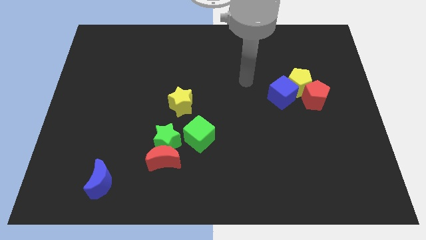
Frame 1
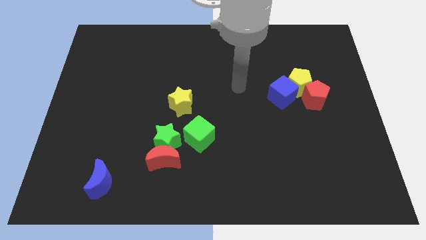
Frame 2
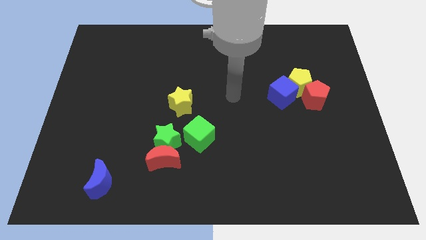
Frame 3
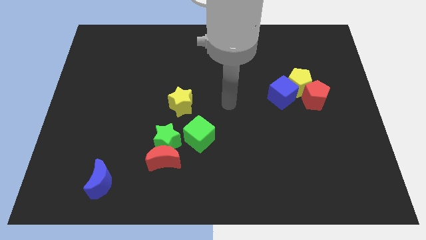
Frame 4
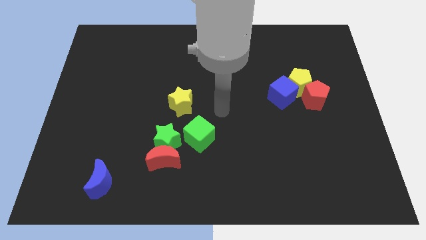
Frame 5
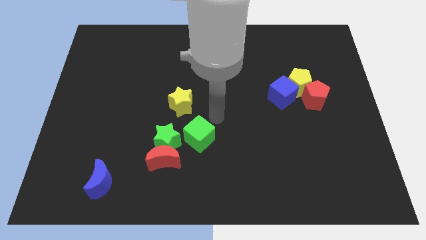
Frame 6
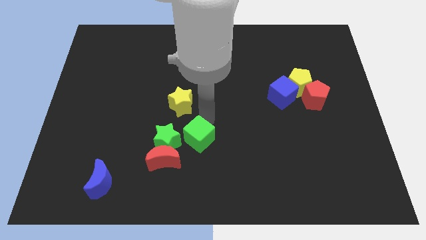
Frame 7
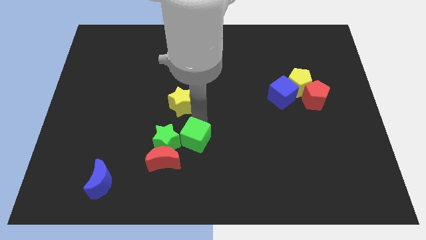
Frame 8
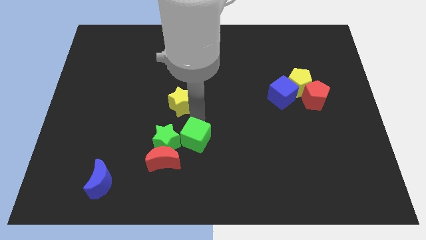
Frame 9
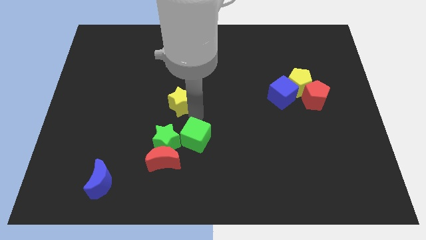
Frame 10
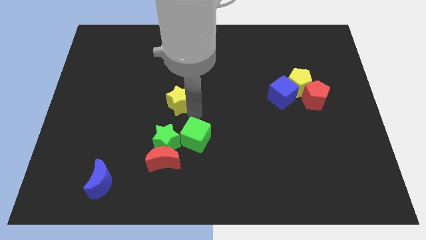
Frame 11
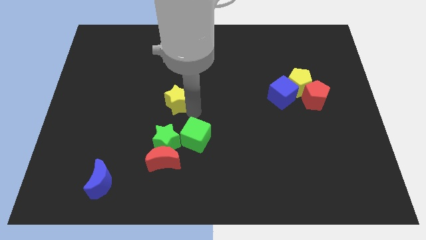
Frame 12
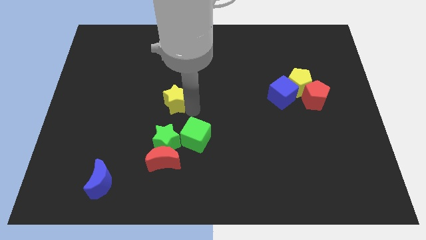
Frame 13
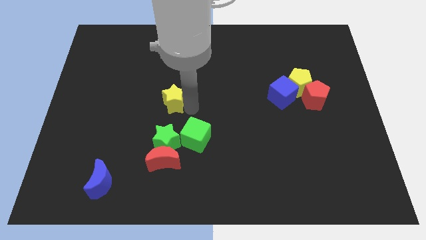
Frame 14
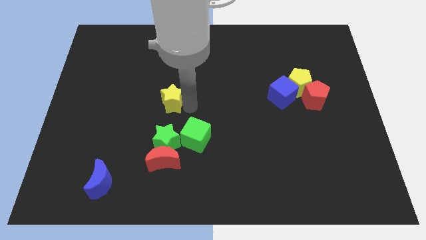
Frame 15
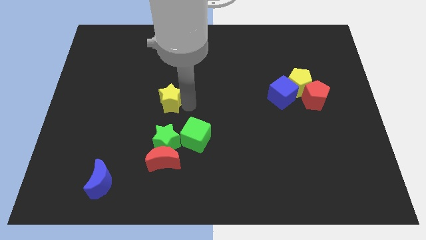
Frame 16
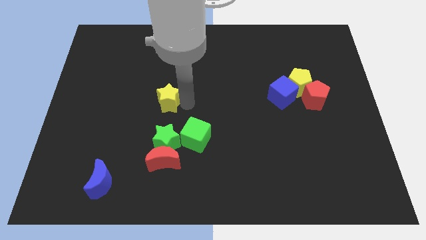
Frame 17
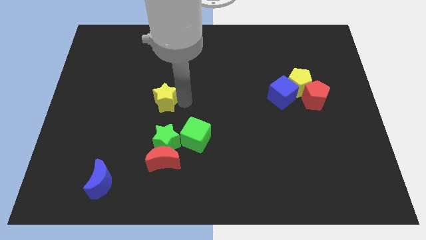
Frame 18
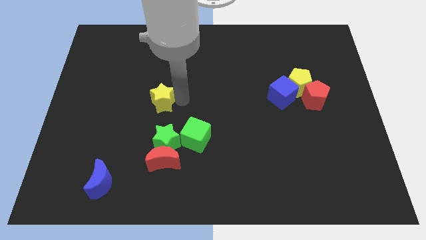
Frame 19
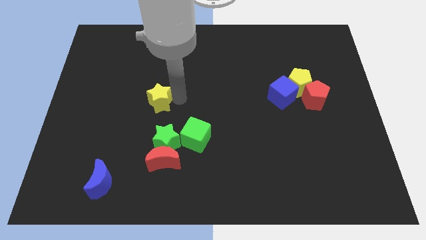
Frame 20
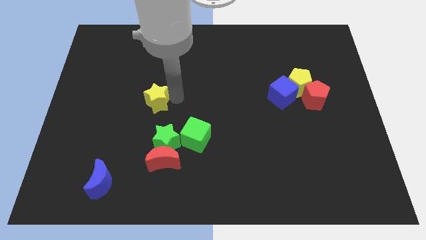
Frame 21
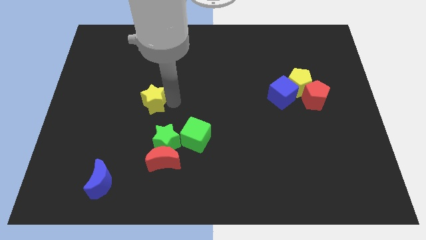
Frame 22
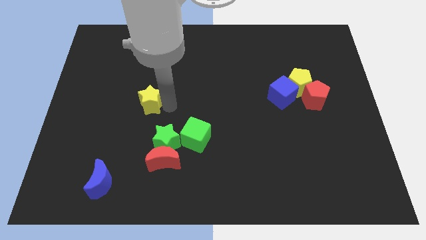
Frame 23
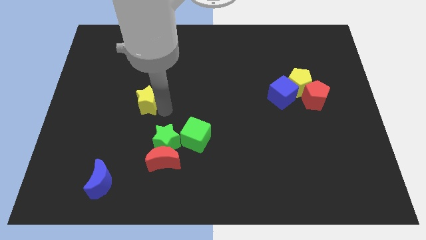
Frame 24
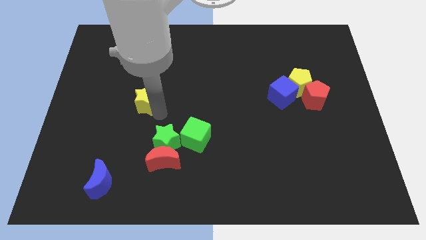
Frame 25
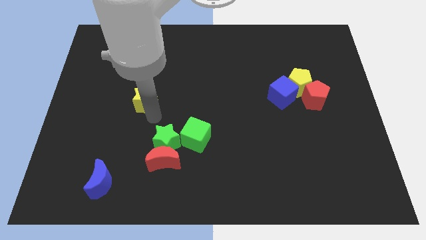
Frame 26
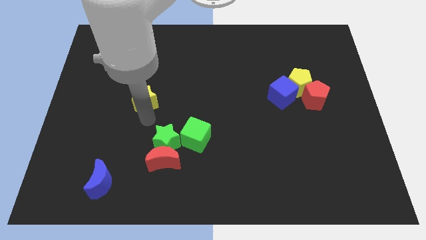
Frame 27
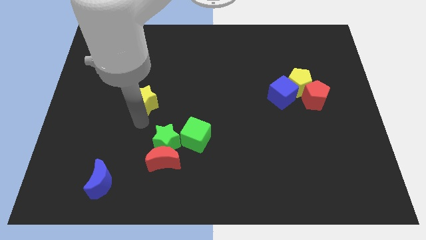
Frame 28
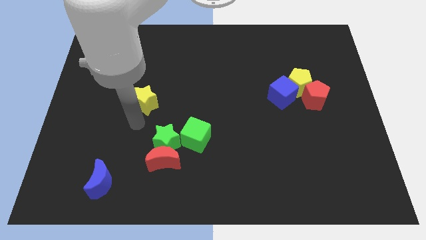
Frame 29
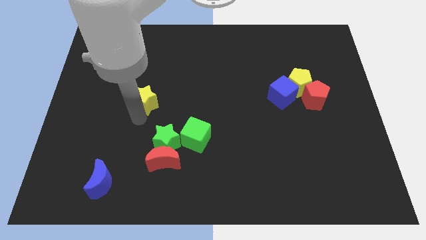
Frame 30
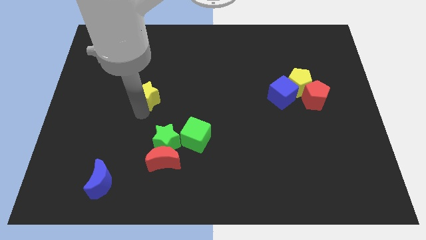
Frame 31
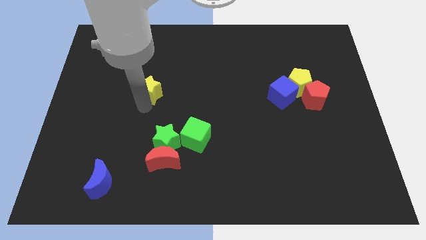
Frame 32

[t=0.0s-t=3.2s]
move the yellow star diagonally upwards and to the left somewhat

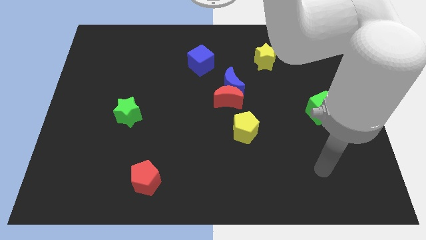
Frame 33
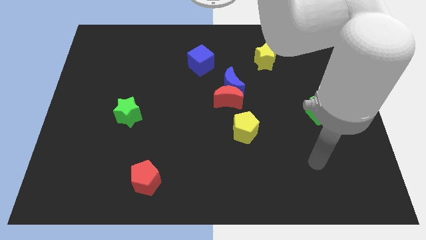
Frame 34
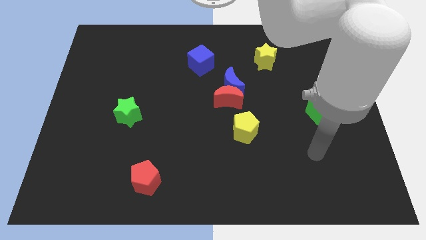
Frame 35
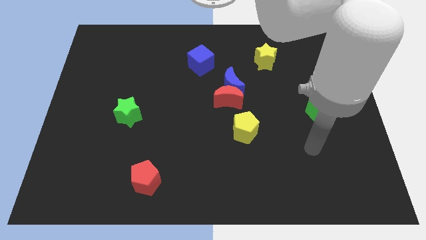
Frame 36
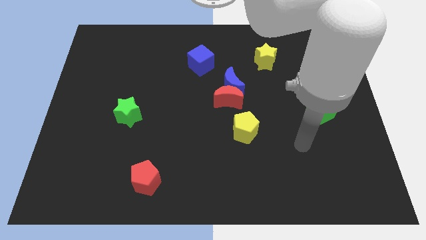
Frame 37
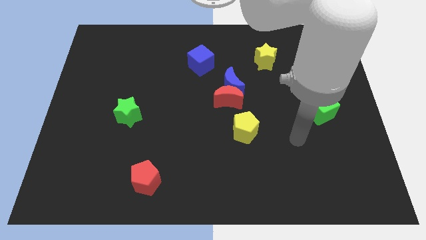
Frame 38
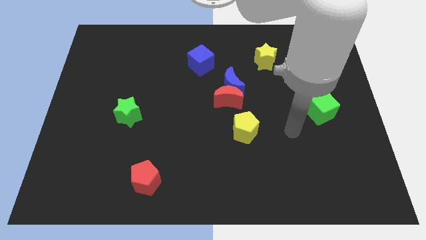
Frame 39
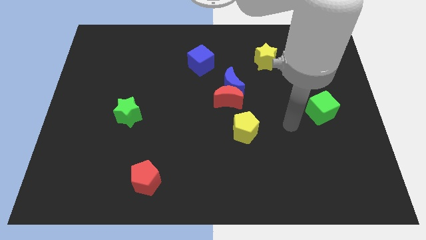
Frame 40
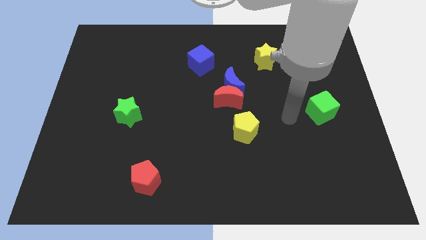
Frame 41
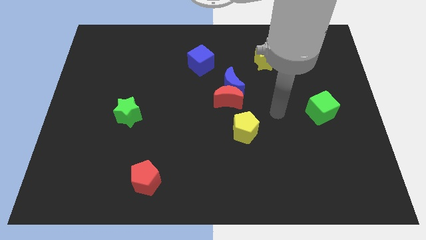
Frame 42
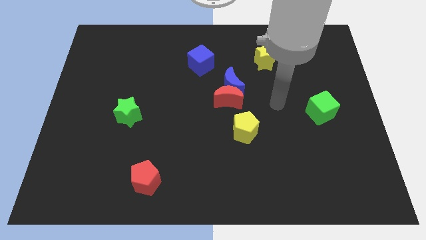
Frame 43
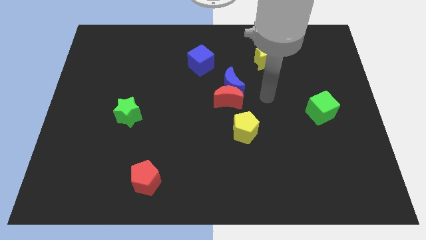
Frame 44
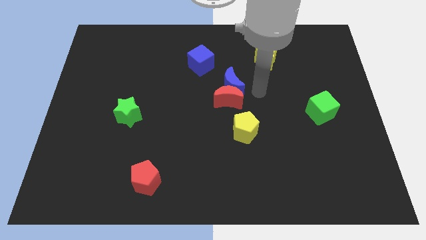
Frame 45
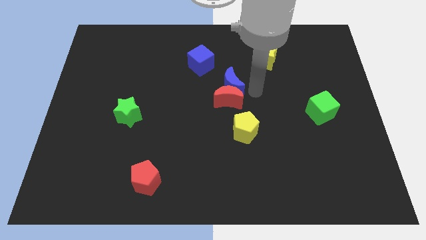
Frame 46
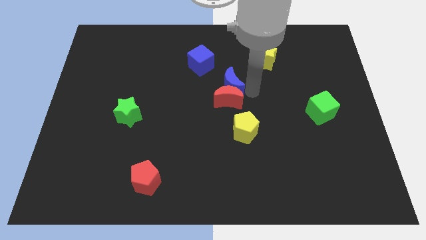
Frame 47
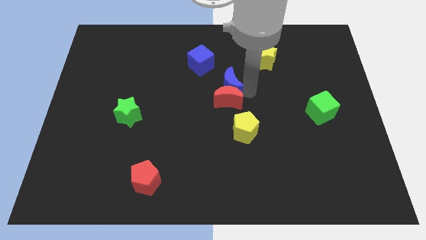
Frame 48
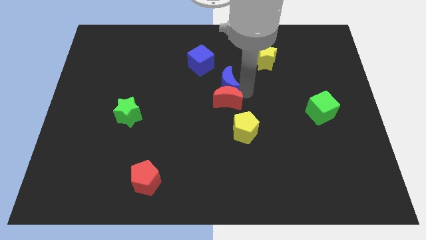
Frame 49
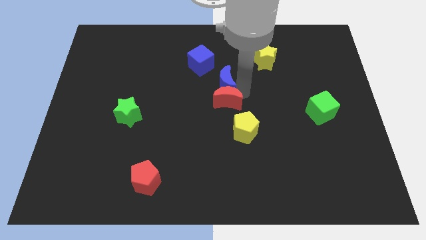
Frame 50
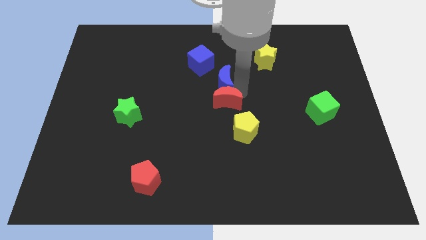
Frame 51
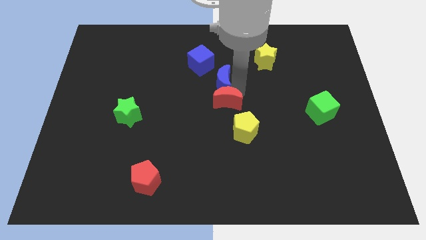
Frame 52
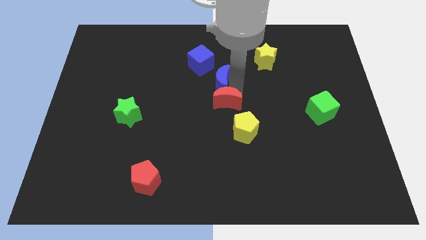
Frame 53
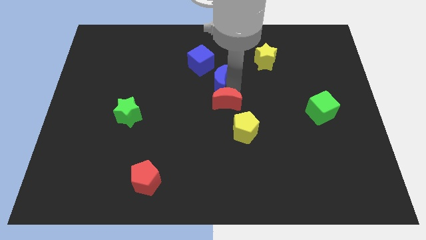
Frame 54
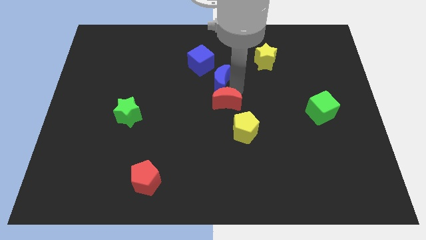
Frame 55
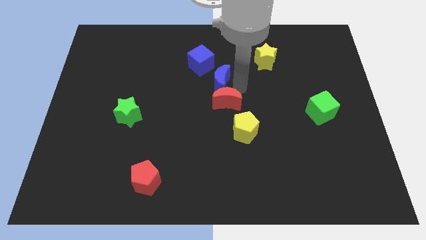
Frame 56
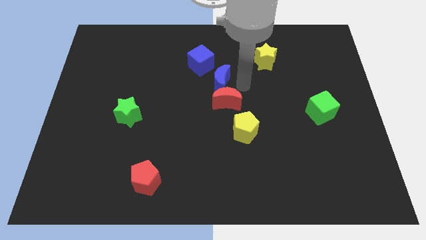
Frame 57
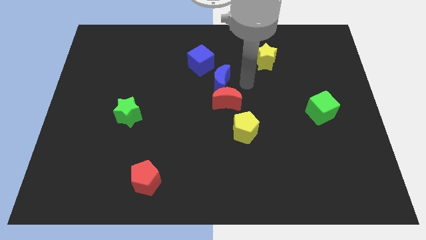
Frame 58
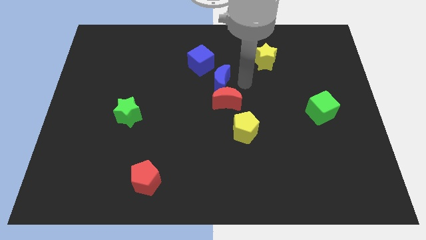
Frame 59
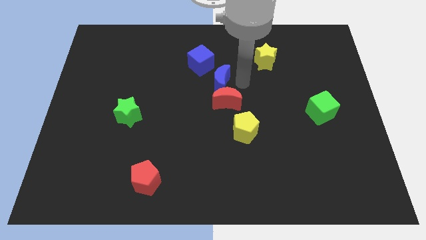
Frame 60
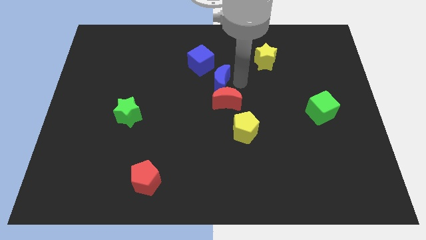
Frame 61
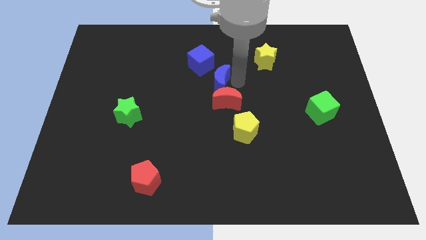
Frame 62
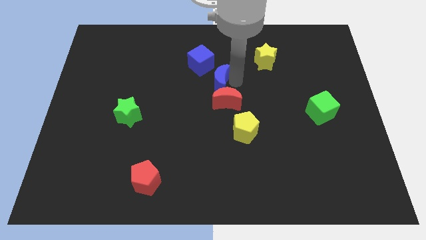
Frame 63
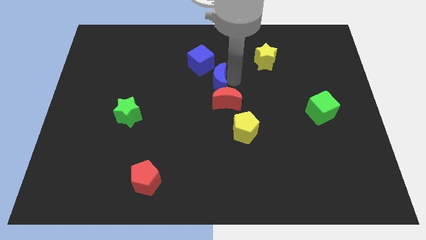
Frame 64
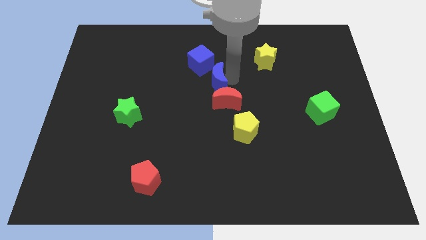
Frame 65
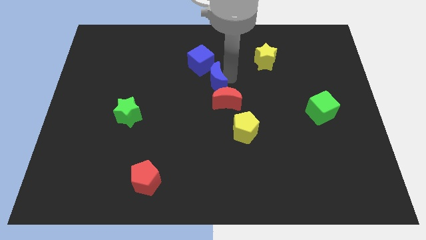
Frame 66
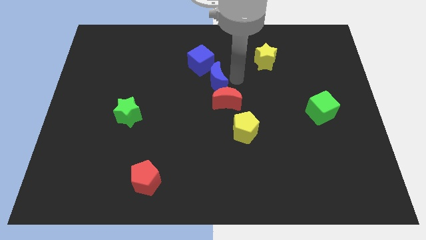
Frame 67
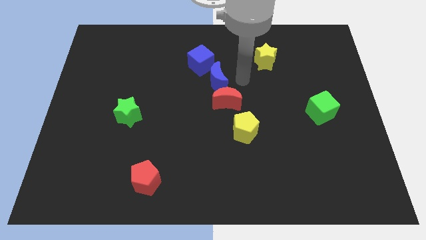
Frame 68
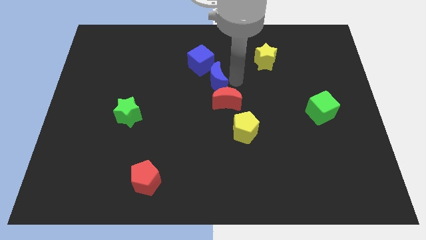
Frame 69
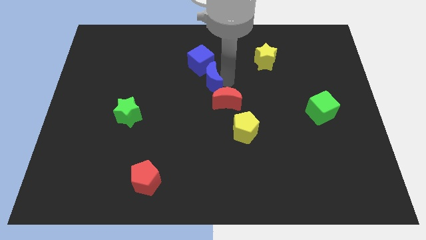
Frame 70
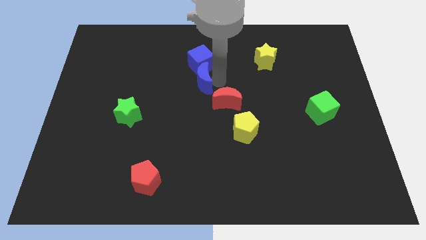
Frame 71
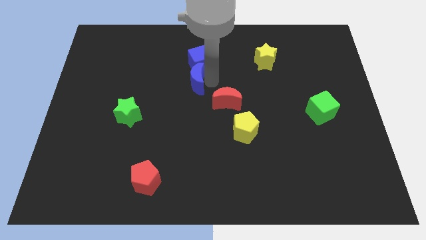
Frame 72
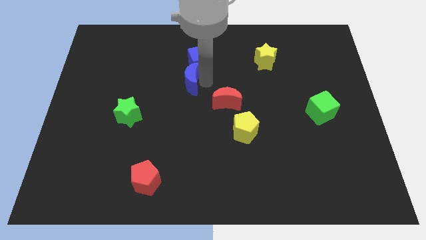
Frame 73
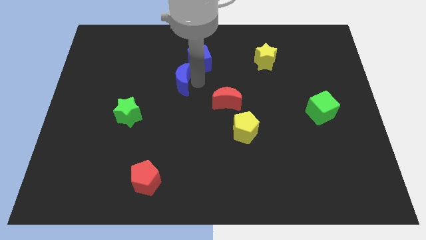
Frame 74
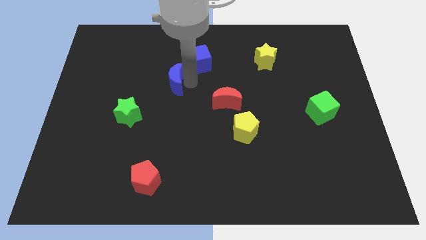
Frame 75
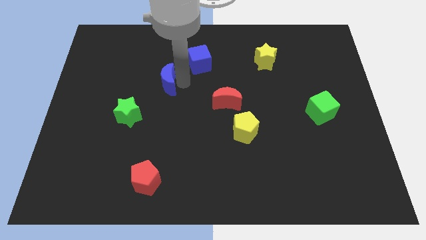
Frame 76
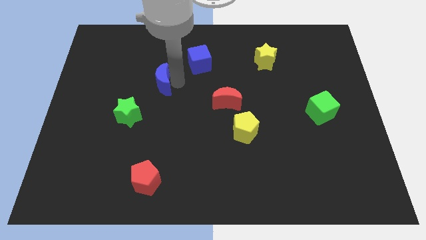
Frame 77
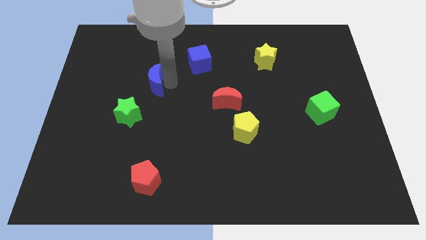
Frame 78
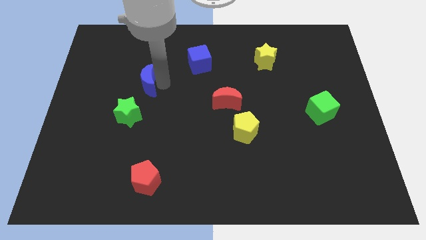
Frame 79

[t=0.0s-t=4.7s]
move the blue moon to the left

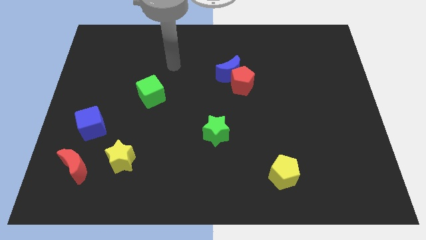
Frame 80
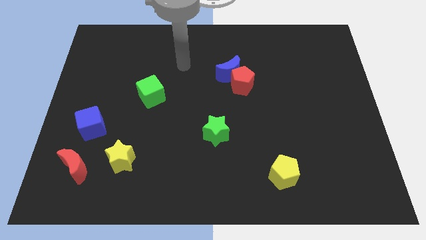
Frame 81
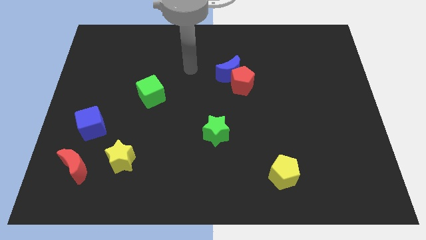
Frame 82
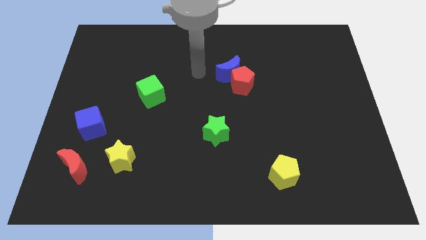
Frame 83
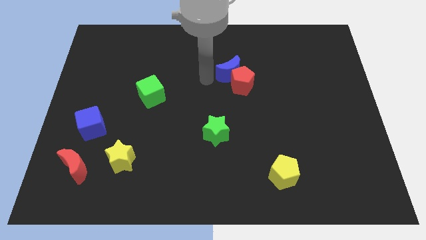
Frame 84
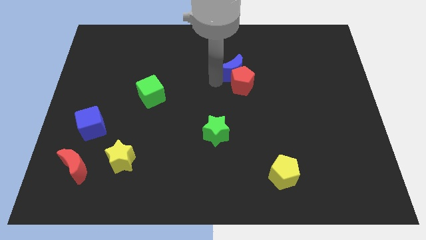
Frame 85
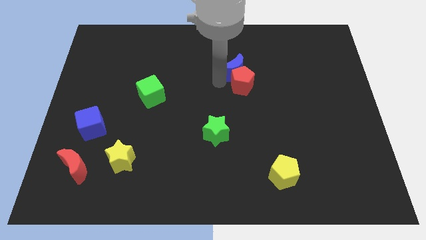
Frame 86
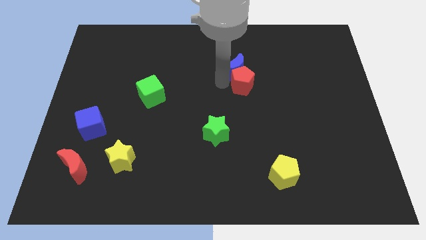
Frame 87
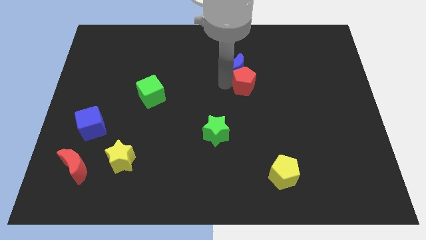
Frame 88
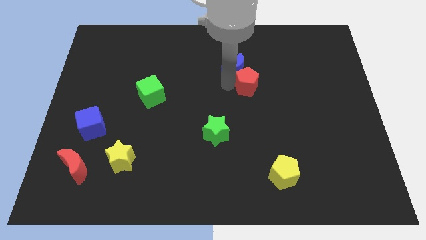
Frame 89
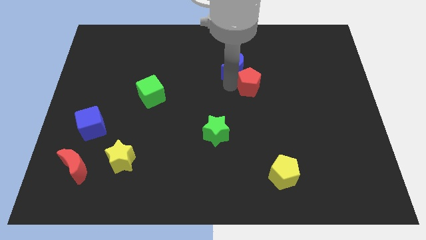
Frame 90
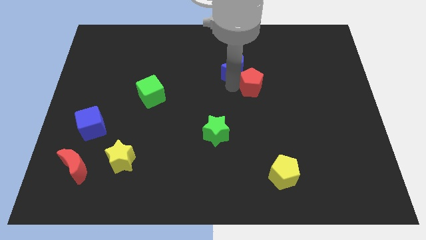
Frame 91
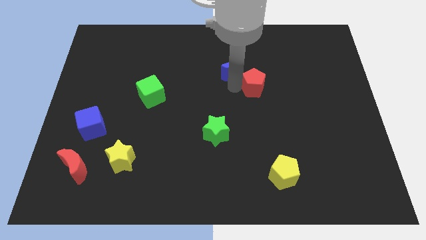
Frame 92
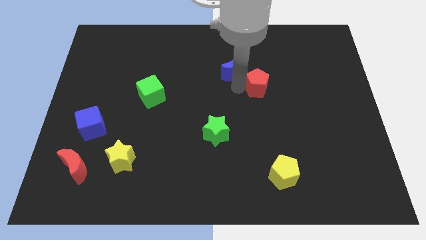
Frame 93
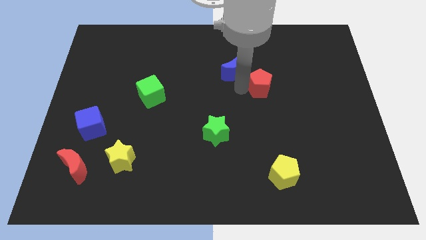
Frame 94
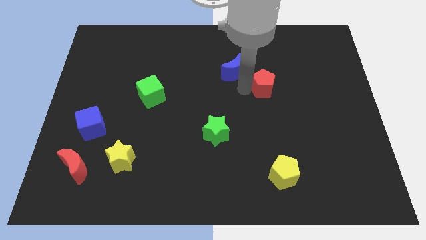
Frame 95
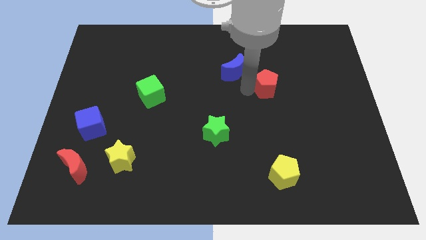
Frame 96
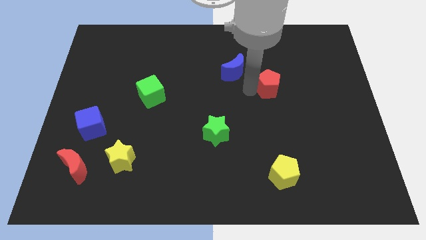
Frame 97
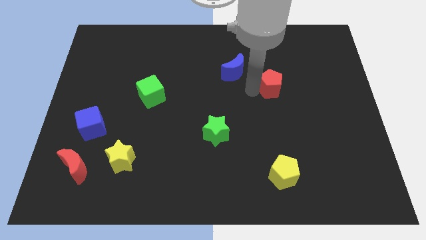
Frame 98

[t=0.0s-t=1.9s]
push the red pentagon somewhat to the right
